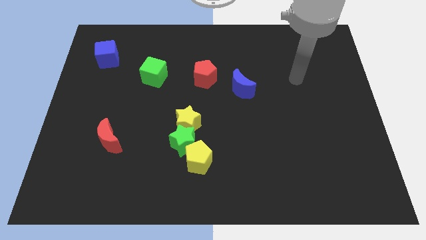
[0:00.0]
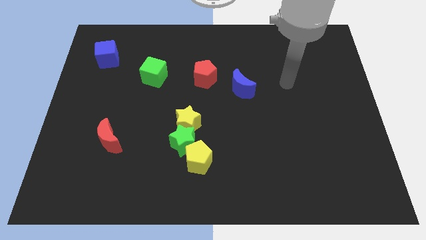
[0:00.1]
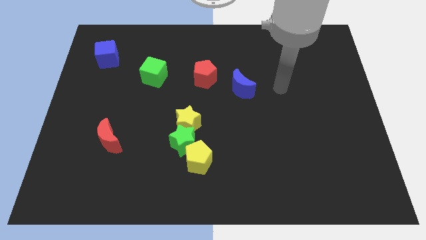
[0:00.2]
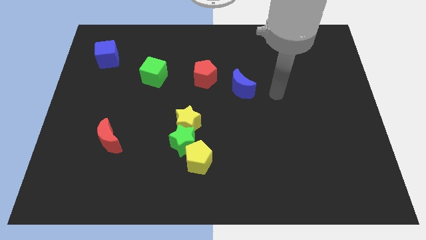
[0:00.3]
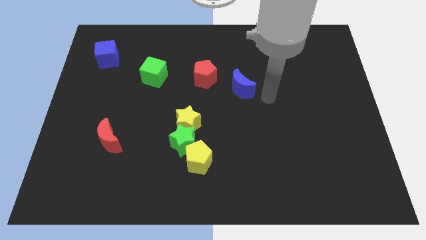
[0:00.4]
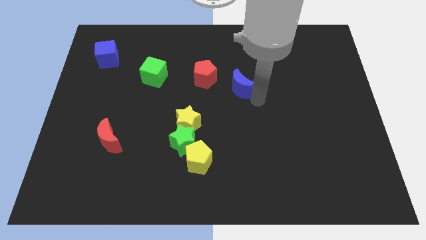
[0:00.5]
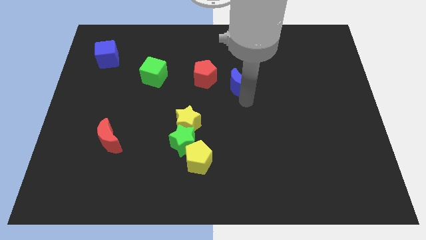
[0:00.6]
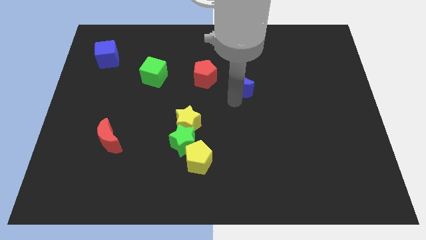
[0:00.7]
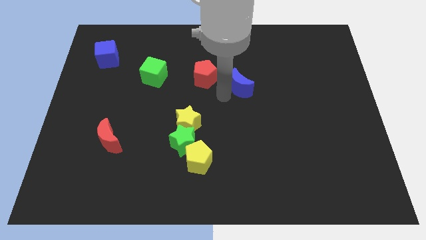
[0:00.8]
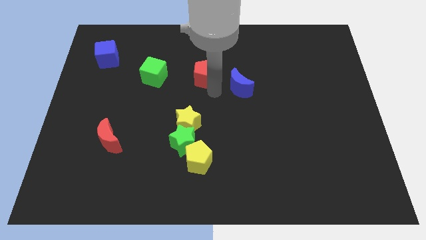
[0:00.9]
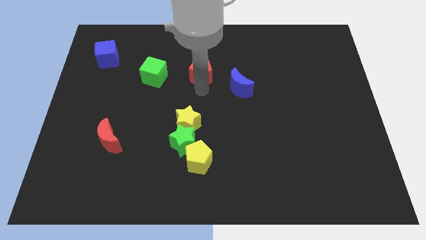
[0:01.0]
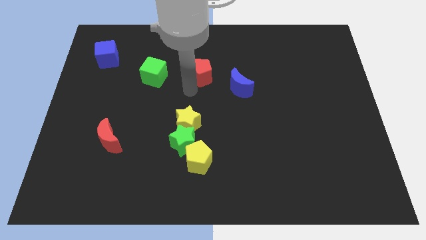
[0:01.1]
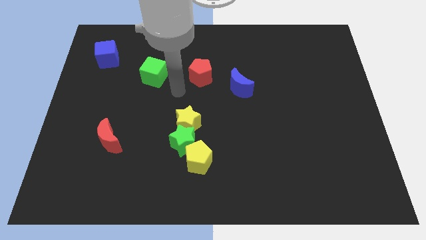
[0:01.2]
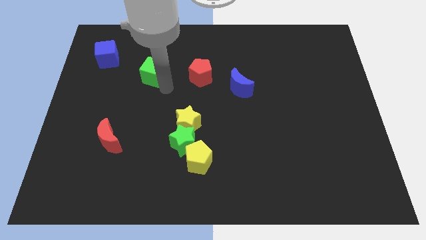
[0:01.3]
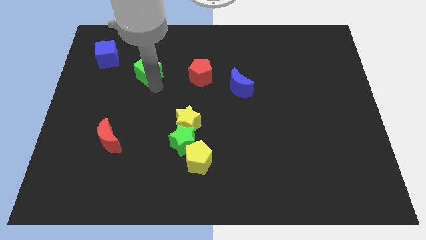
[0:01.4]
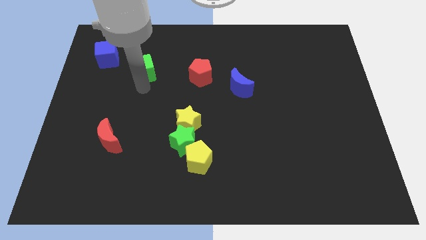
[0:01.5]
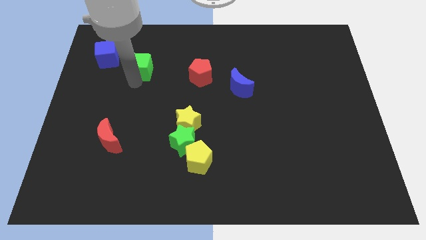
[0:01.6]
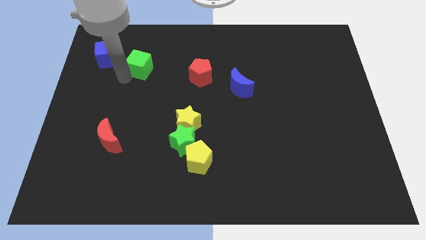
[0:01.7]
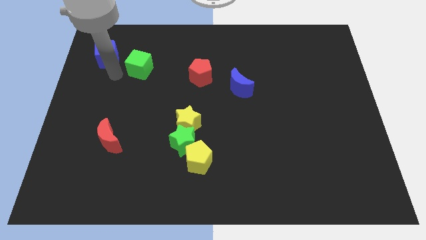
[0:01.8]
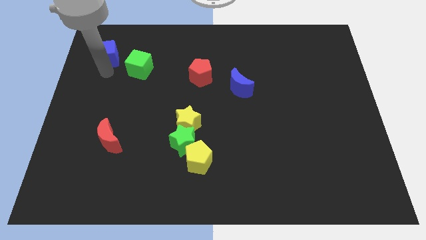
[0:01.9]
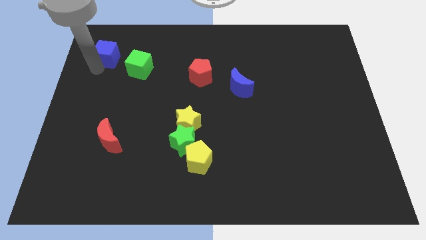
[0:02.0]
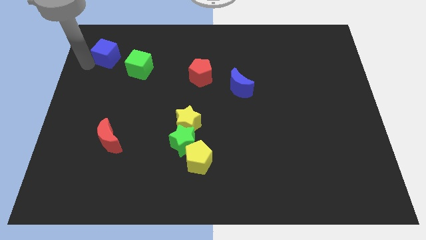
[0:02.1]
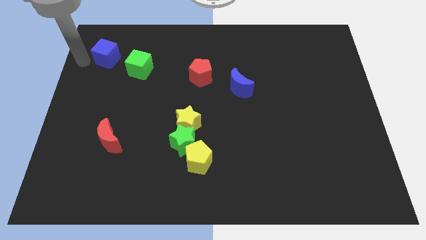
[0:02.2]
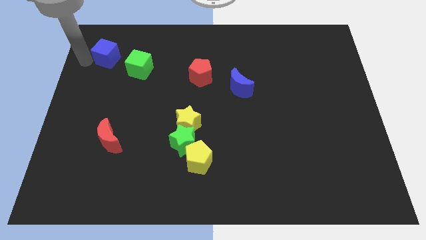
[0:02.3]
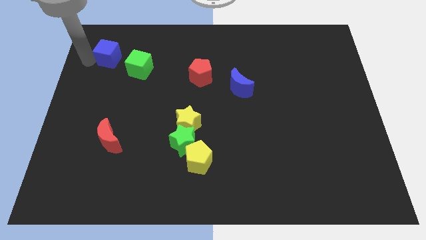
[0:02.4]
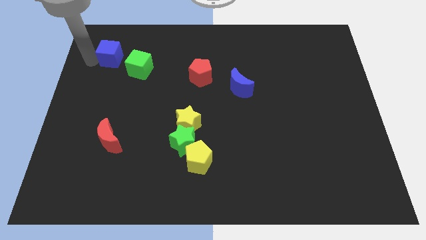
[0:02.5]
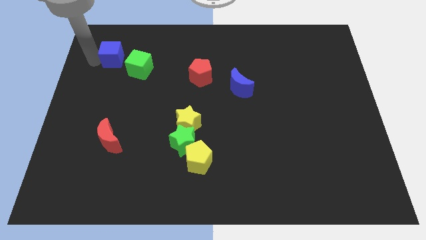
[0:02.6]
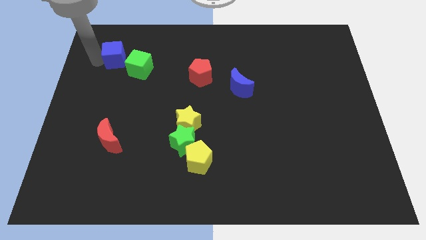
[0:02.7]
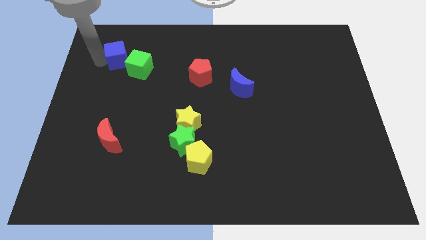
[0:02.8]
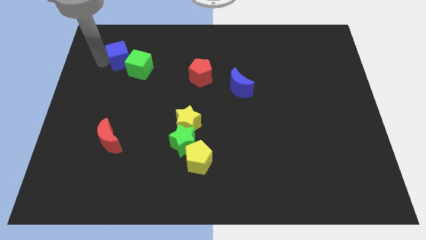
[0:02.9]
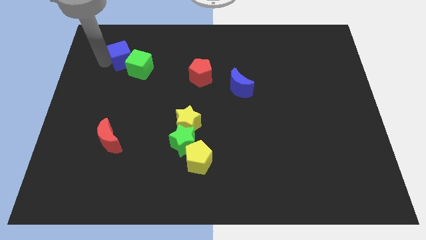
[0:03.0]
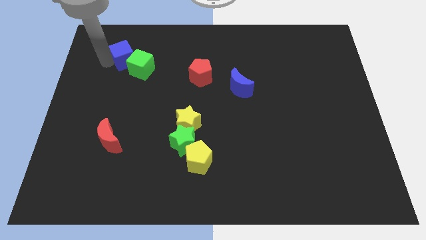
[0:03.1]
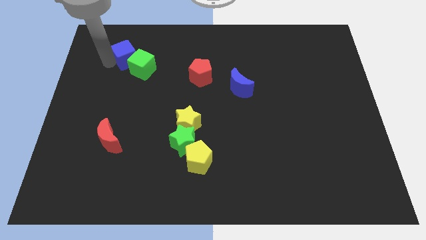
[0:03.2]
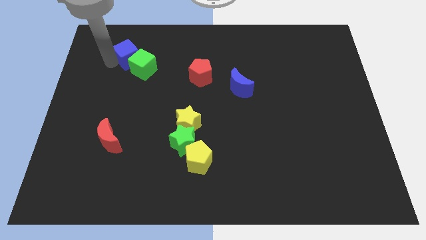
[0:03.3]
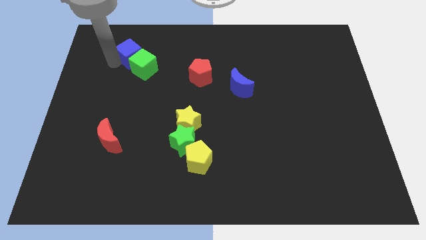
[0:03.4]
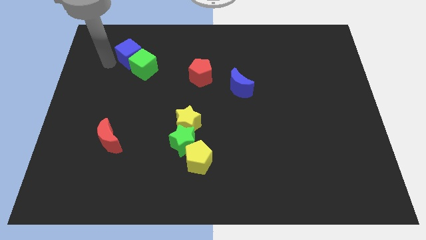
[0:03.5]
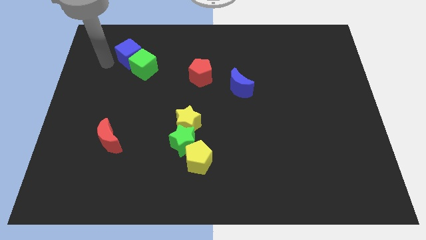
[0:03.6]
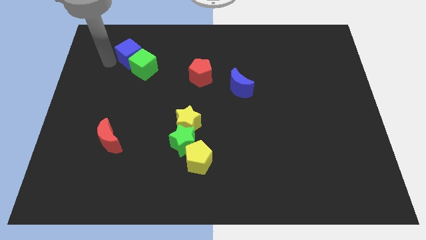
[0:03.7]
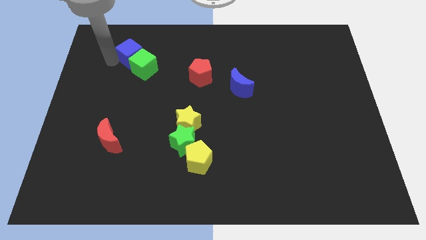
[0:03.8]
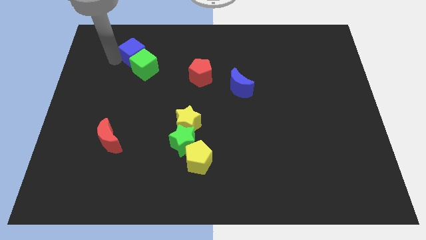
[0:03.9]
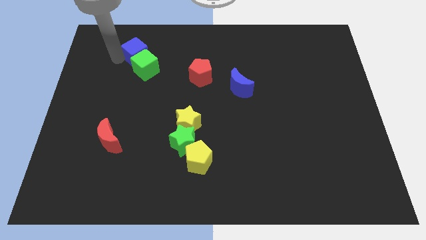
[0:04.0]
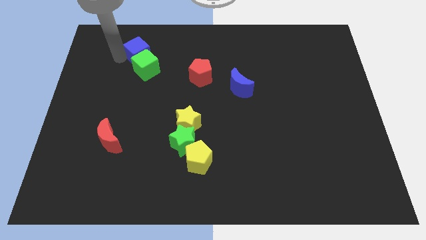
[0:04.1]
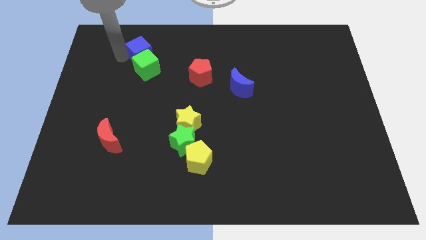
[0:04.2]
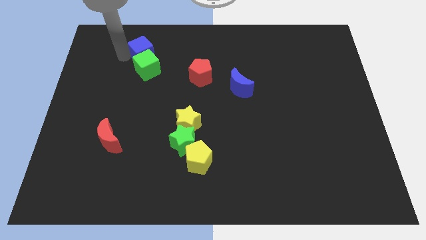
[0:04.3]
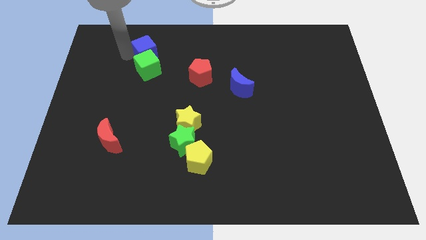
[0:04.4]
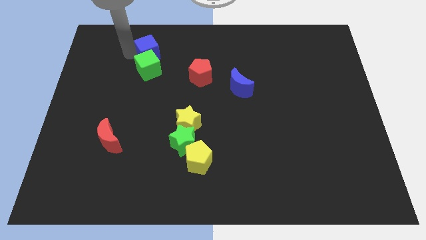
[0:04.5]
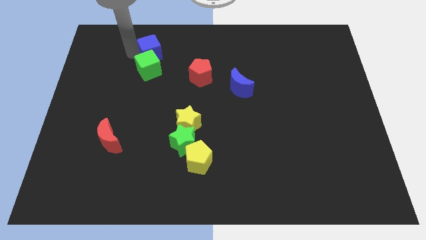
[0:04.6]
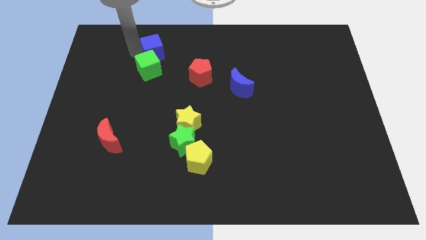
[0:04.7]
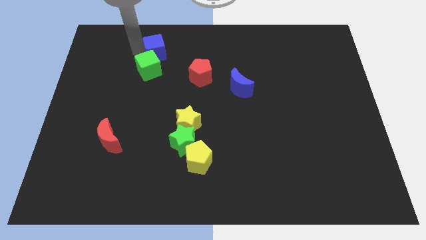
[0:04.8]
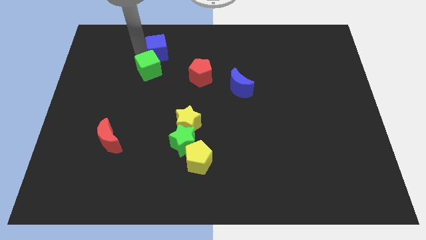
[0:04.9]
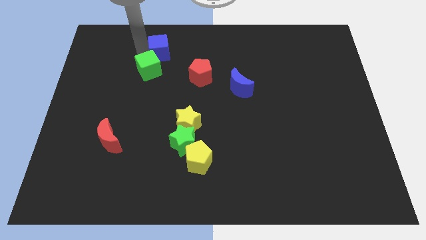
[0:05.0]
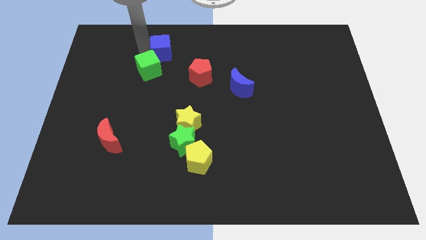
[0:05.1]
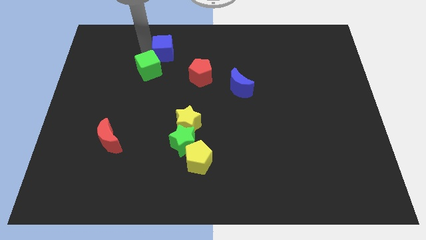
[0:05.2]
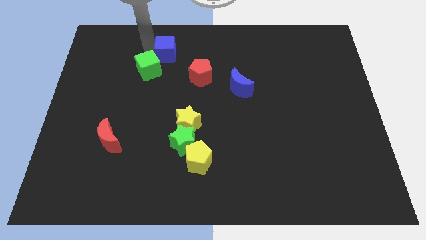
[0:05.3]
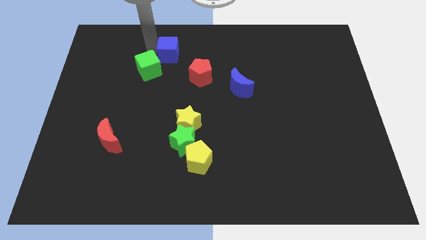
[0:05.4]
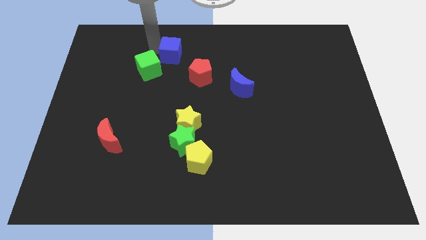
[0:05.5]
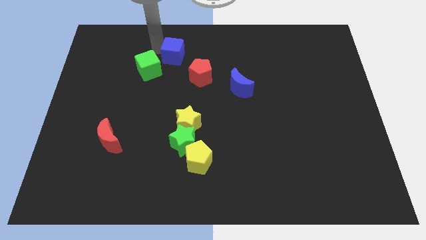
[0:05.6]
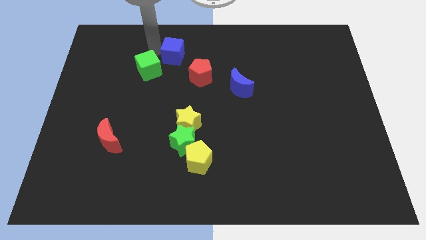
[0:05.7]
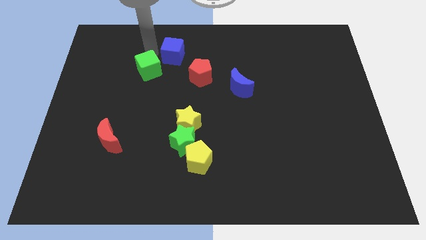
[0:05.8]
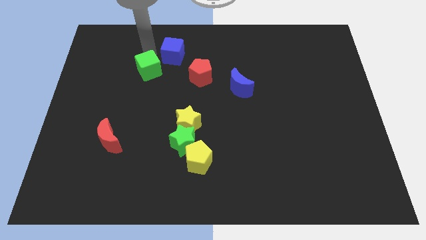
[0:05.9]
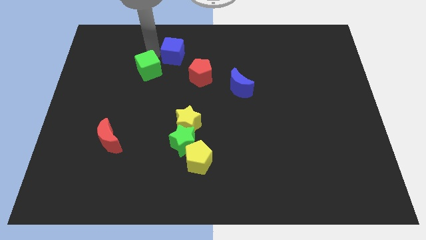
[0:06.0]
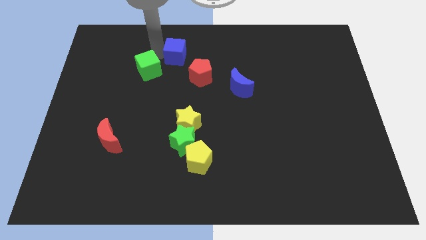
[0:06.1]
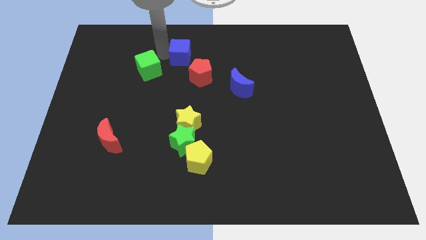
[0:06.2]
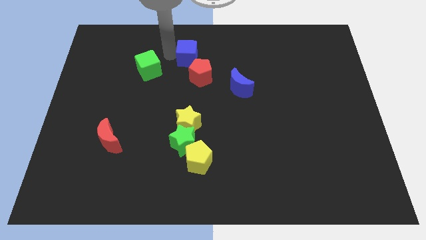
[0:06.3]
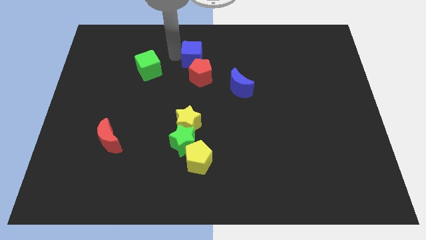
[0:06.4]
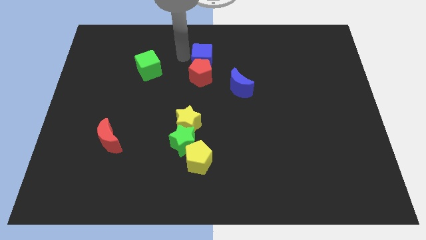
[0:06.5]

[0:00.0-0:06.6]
move the blue cube diagonally up and to the right of the red pentagon

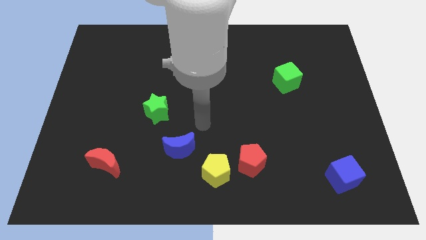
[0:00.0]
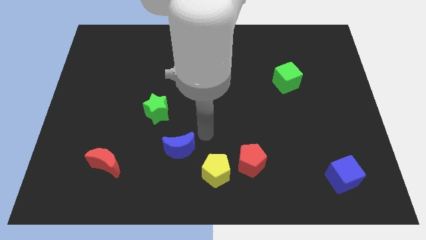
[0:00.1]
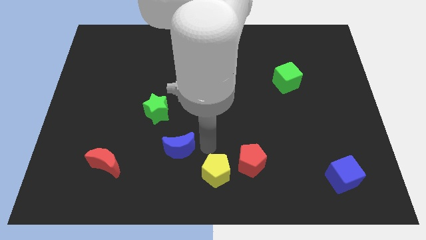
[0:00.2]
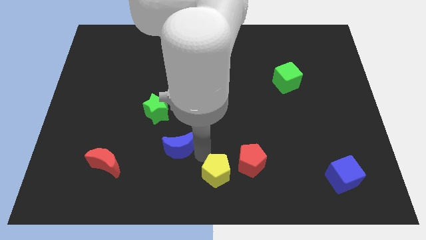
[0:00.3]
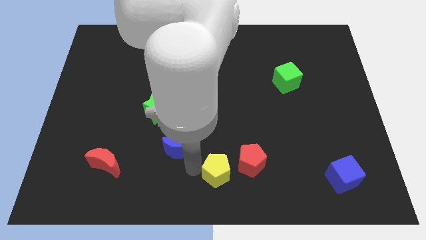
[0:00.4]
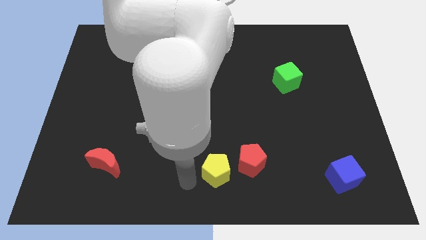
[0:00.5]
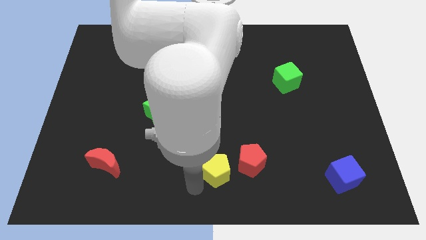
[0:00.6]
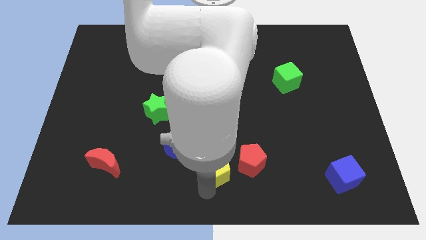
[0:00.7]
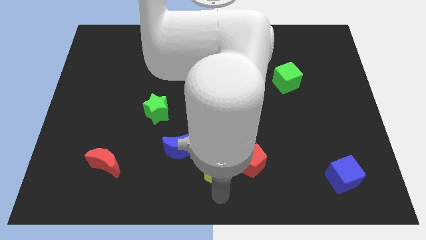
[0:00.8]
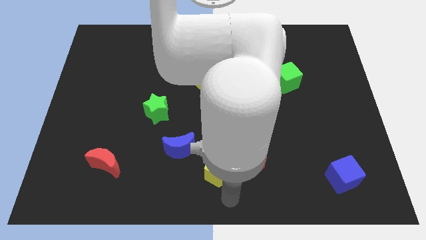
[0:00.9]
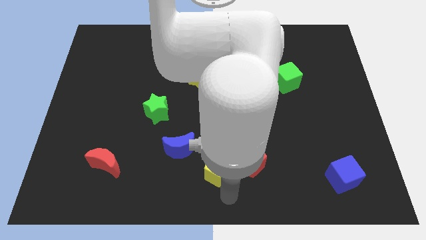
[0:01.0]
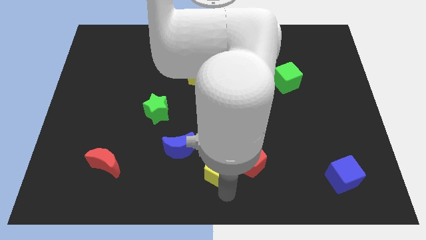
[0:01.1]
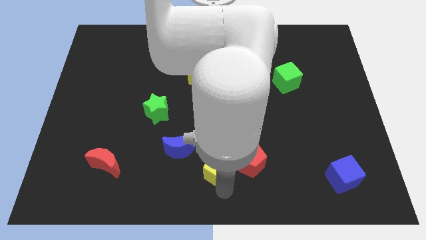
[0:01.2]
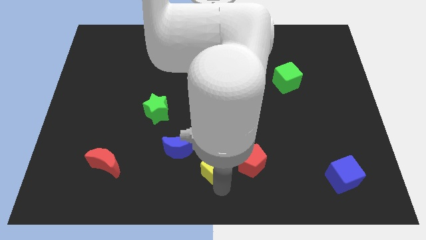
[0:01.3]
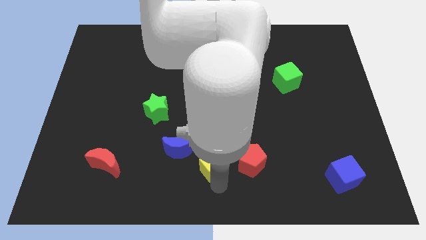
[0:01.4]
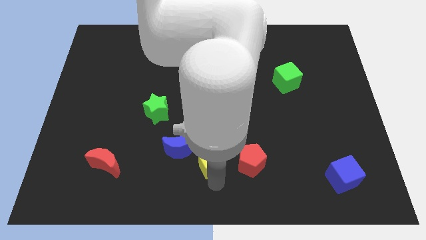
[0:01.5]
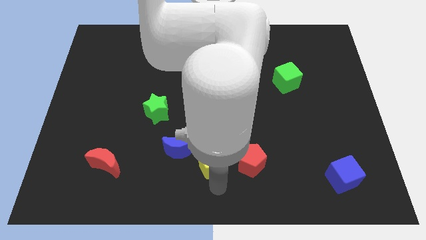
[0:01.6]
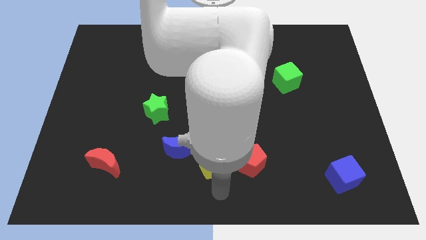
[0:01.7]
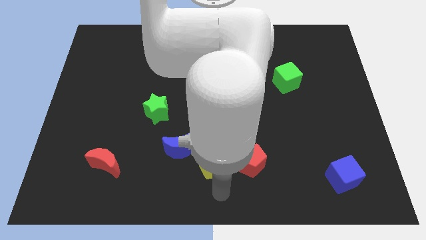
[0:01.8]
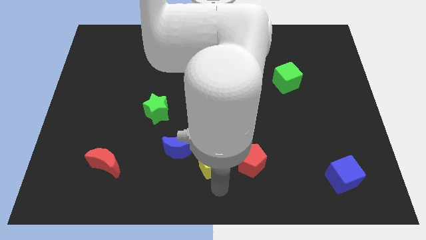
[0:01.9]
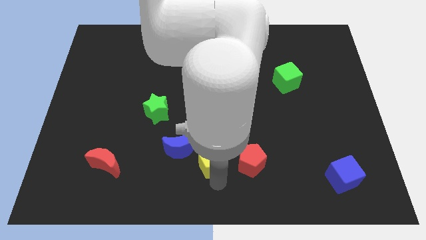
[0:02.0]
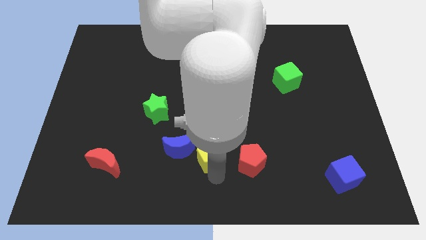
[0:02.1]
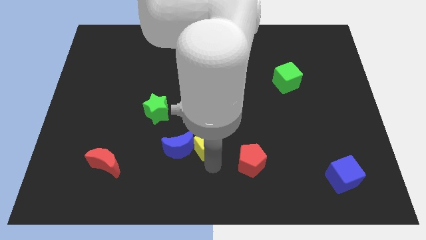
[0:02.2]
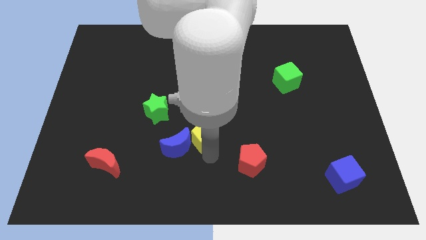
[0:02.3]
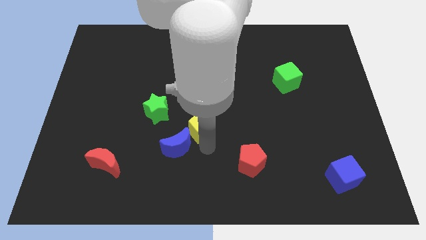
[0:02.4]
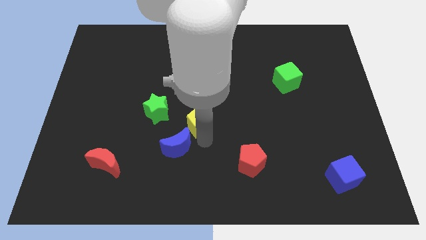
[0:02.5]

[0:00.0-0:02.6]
slide the yellow pentagon to the right of the green star
